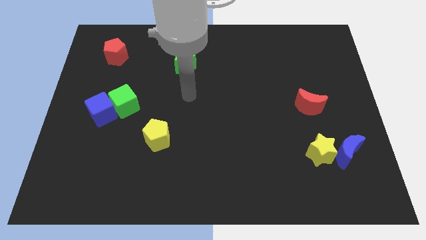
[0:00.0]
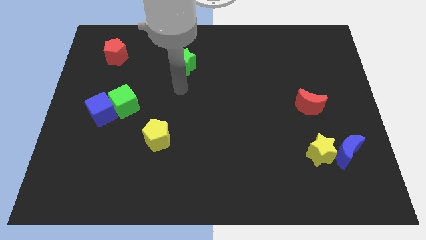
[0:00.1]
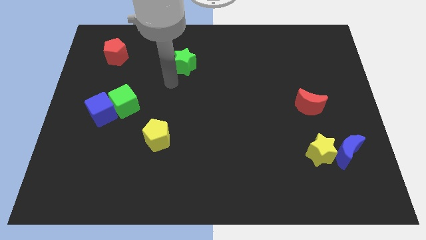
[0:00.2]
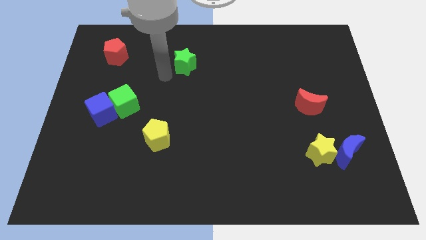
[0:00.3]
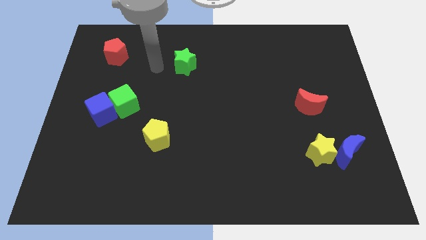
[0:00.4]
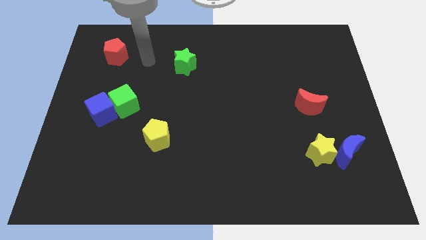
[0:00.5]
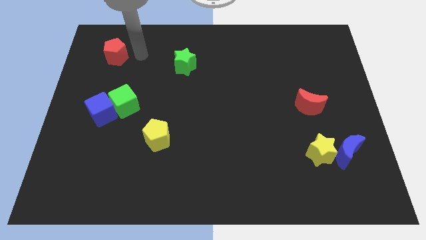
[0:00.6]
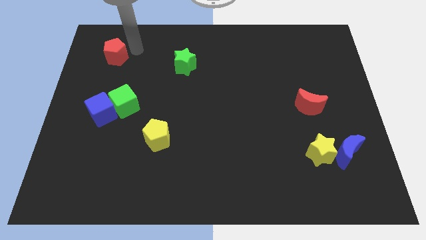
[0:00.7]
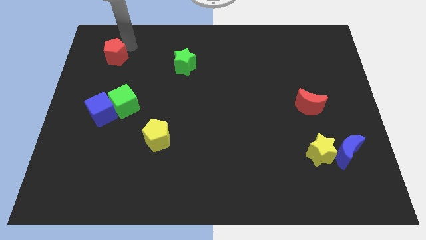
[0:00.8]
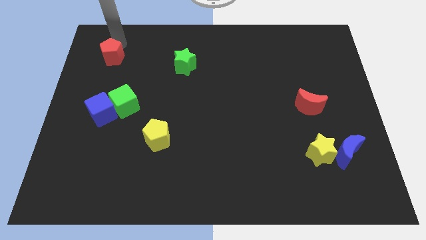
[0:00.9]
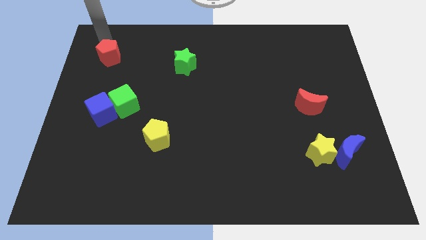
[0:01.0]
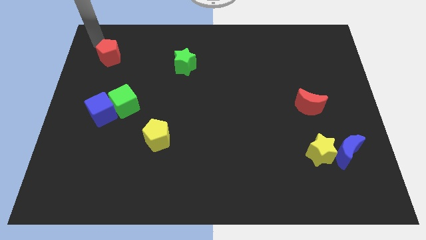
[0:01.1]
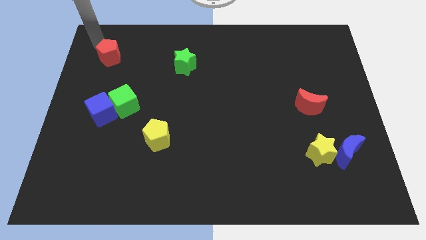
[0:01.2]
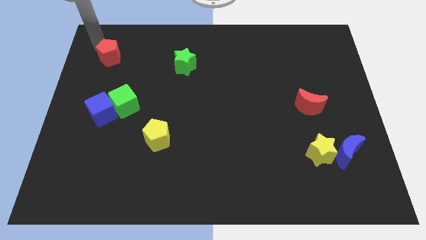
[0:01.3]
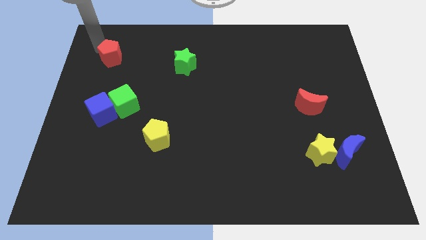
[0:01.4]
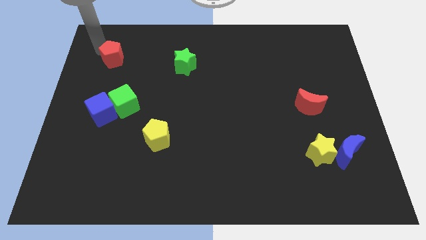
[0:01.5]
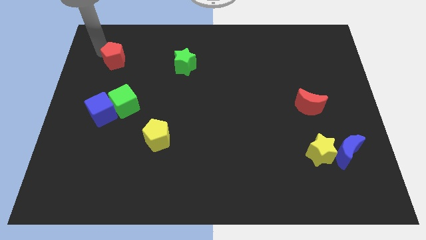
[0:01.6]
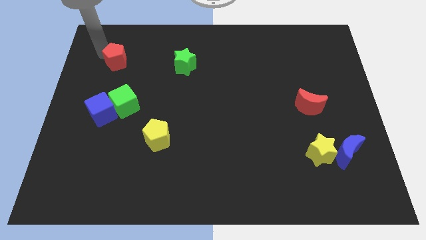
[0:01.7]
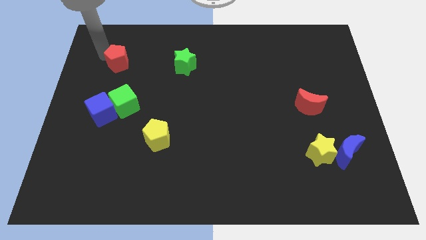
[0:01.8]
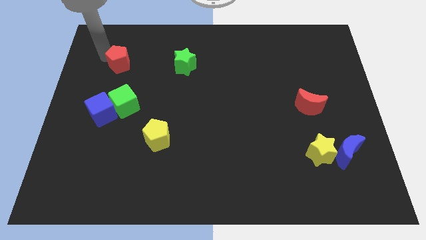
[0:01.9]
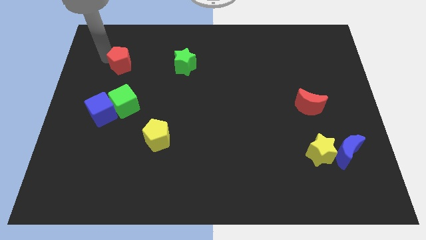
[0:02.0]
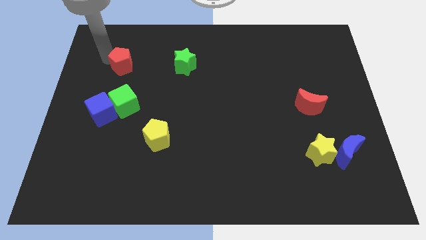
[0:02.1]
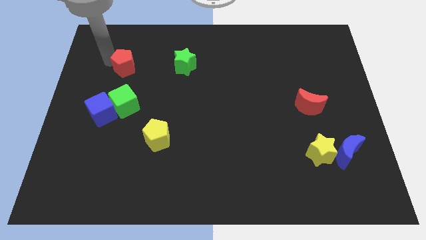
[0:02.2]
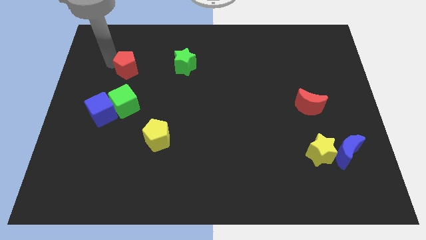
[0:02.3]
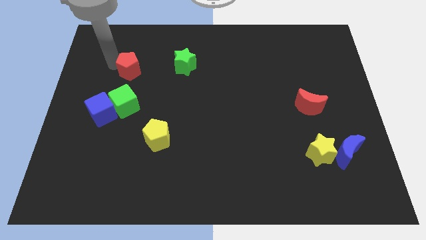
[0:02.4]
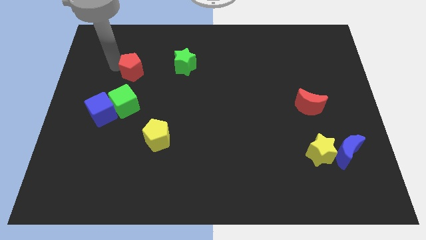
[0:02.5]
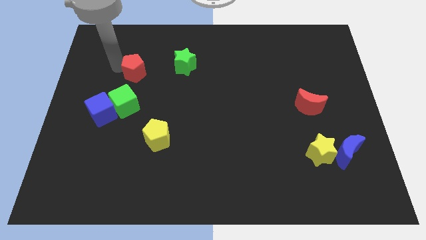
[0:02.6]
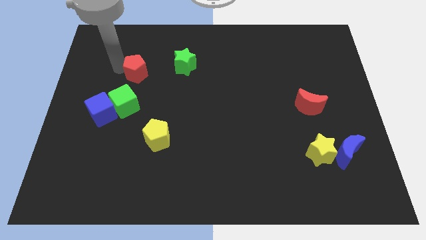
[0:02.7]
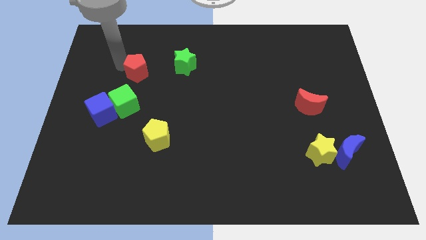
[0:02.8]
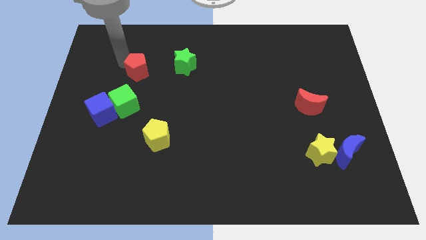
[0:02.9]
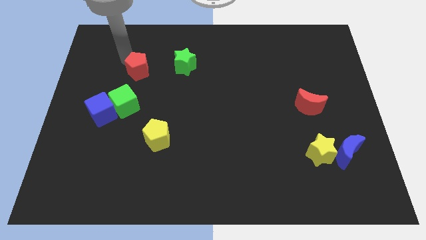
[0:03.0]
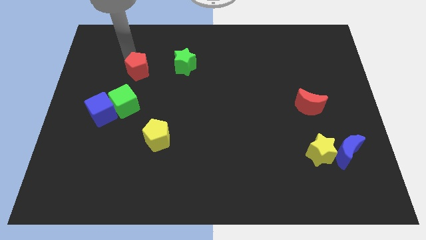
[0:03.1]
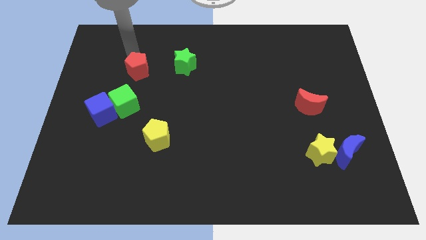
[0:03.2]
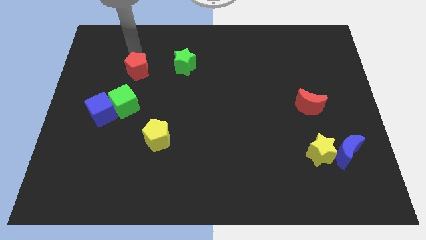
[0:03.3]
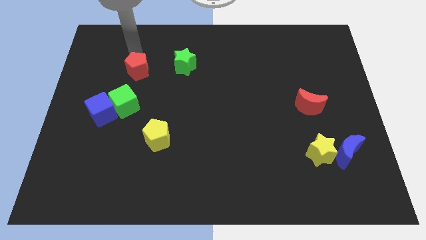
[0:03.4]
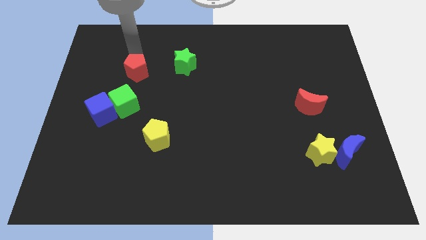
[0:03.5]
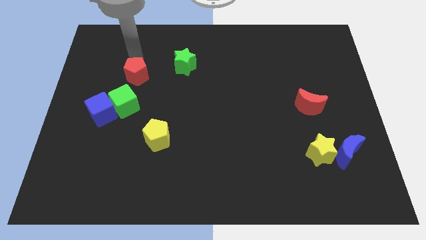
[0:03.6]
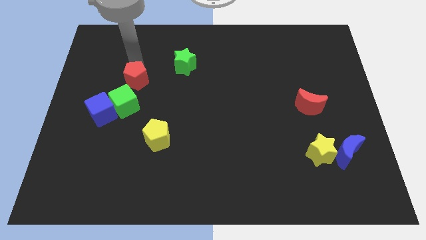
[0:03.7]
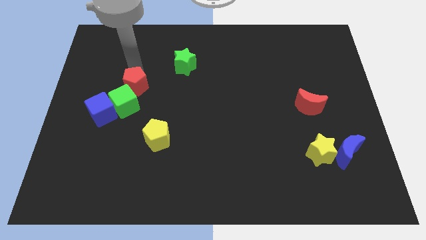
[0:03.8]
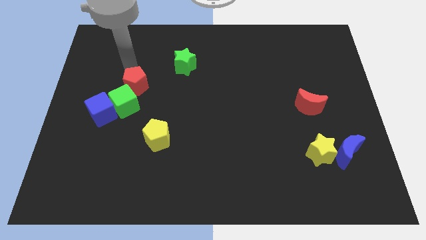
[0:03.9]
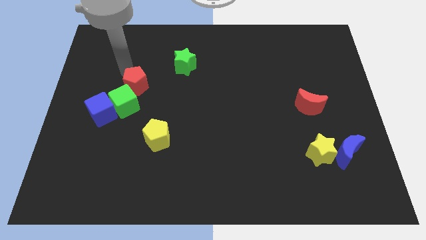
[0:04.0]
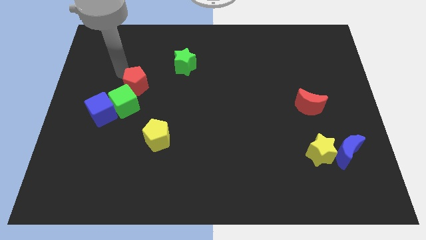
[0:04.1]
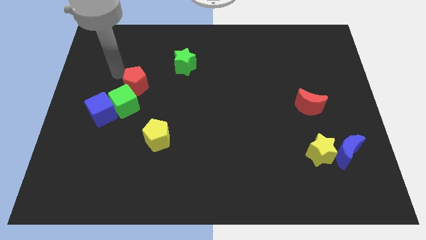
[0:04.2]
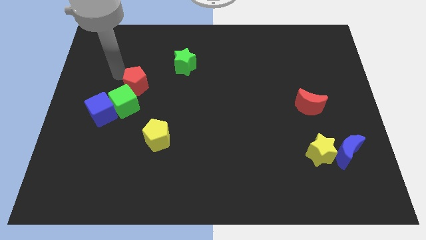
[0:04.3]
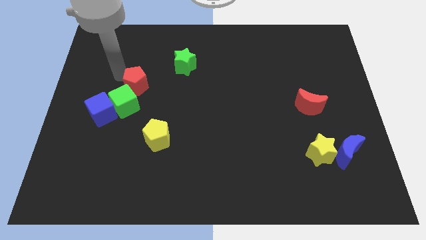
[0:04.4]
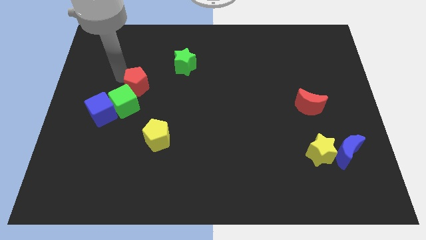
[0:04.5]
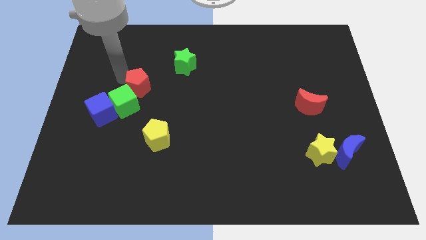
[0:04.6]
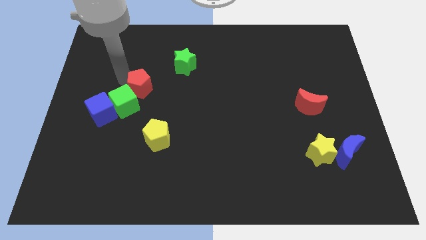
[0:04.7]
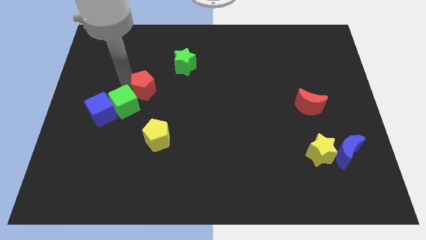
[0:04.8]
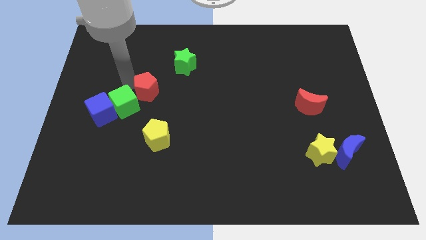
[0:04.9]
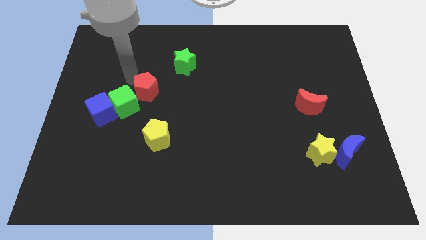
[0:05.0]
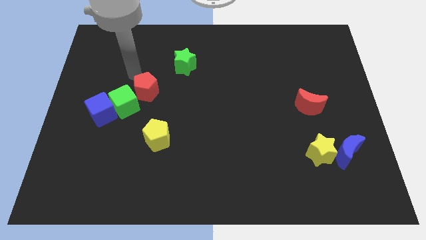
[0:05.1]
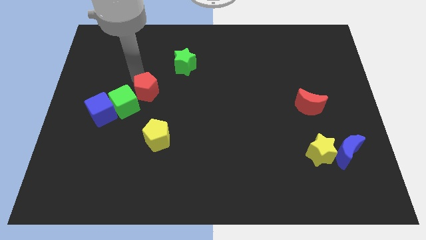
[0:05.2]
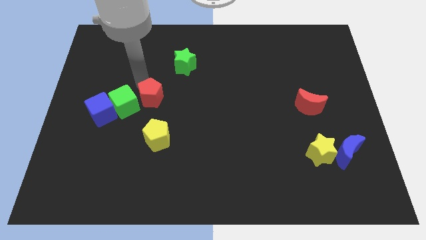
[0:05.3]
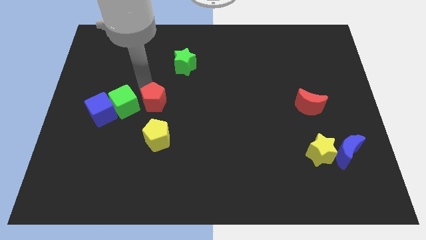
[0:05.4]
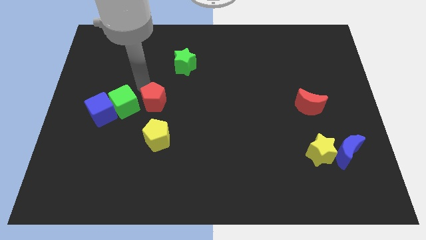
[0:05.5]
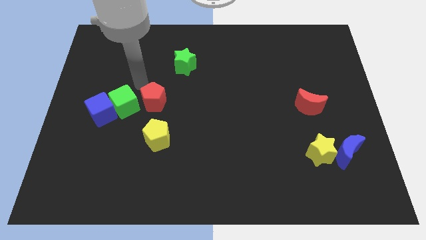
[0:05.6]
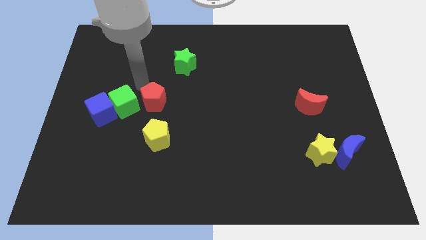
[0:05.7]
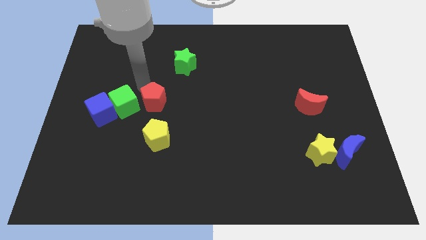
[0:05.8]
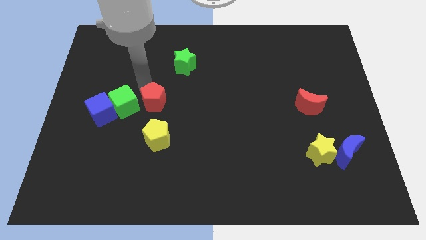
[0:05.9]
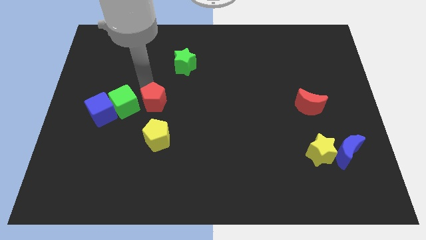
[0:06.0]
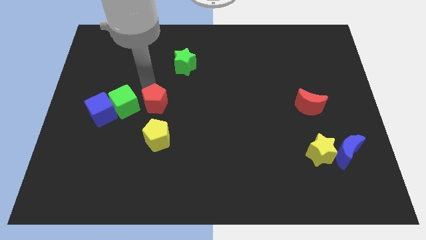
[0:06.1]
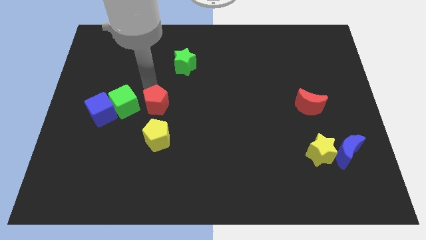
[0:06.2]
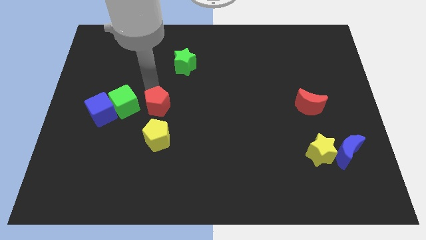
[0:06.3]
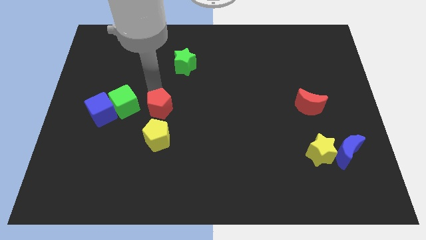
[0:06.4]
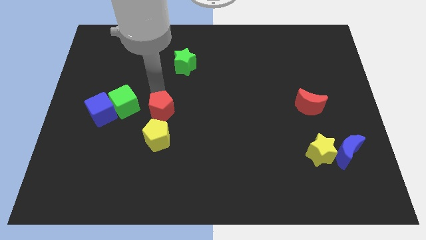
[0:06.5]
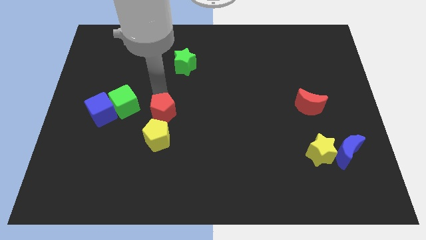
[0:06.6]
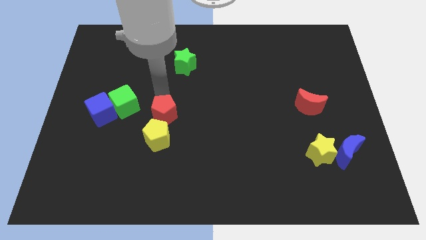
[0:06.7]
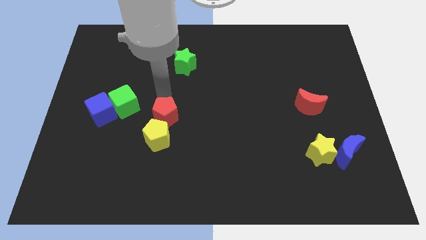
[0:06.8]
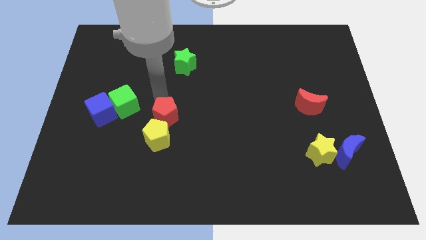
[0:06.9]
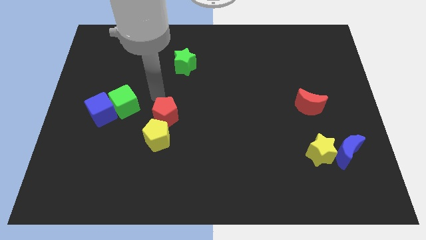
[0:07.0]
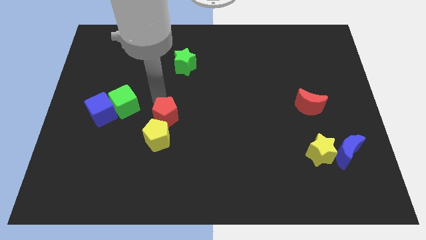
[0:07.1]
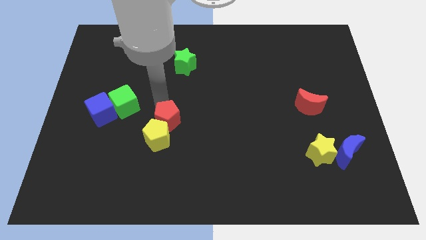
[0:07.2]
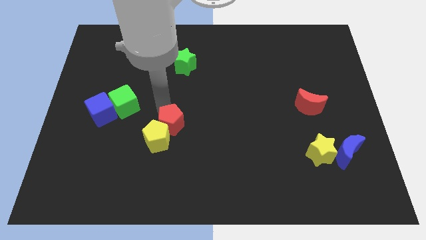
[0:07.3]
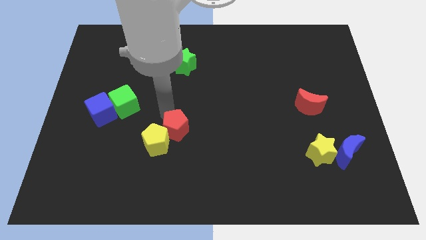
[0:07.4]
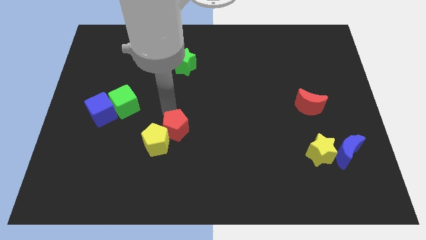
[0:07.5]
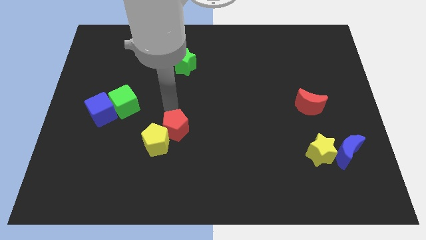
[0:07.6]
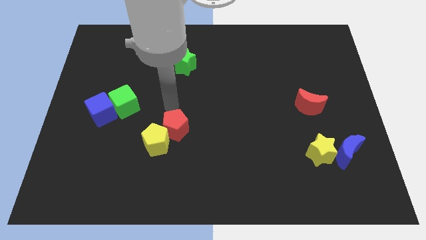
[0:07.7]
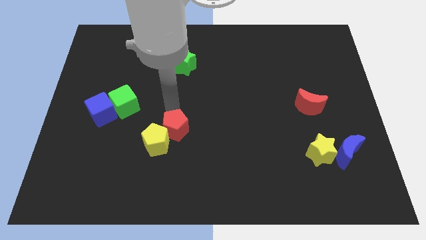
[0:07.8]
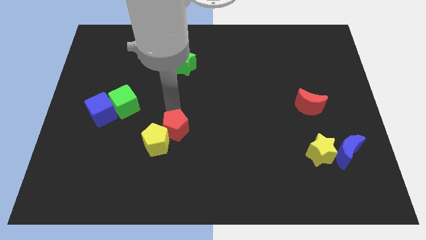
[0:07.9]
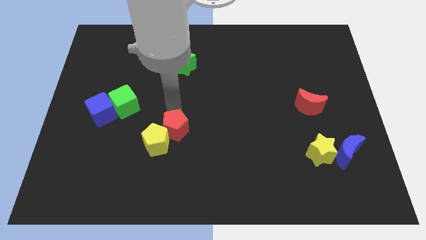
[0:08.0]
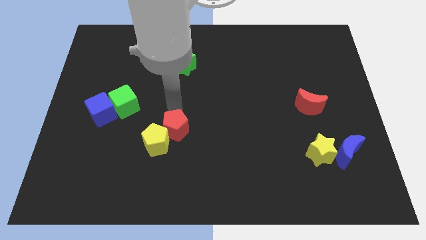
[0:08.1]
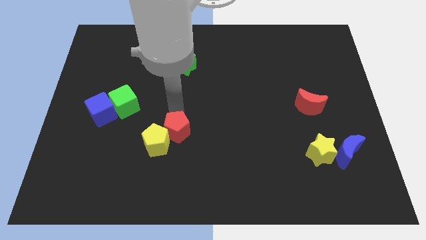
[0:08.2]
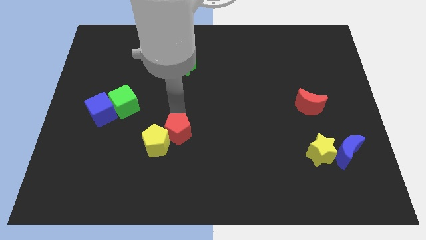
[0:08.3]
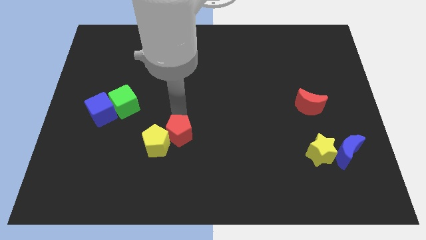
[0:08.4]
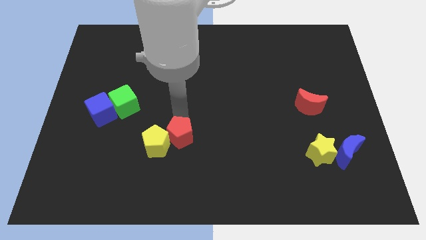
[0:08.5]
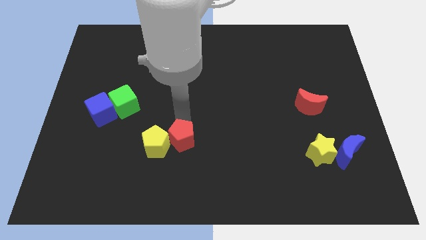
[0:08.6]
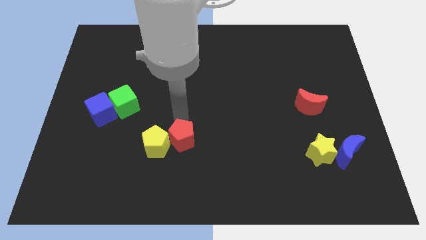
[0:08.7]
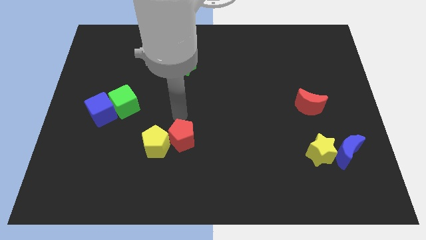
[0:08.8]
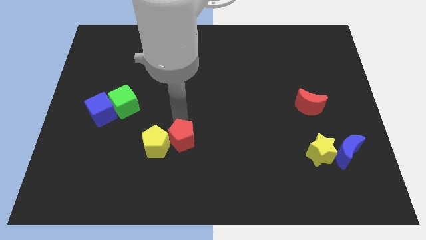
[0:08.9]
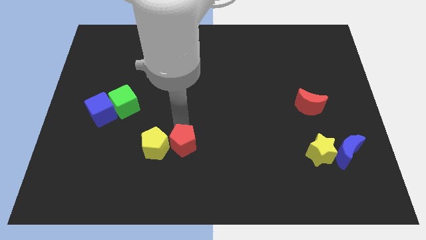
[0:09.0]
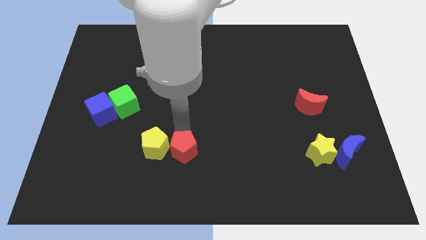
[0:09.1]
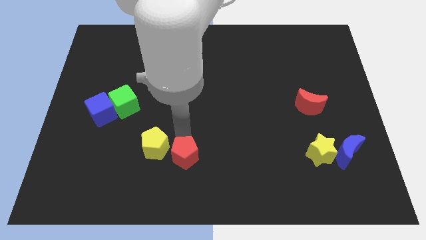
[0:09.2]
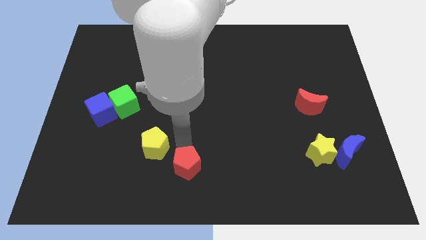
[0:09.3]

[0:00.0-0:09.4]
push the red pentagon to the bottom
